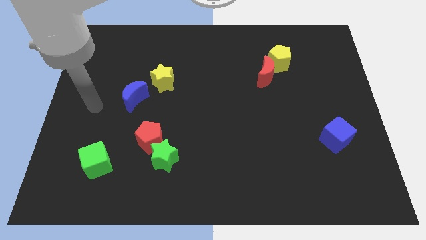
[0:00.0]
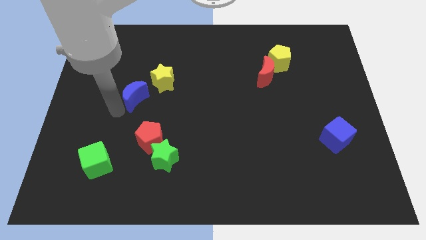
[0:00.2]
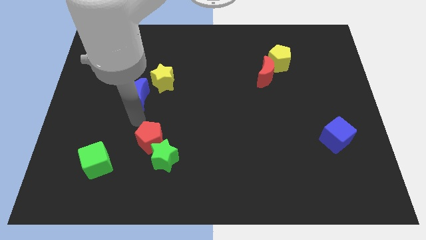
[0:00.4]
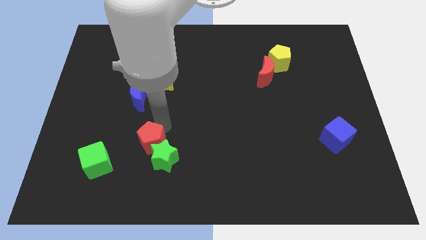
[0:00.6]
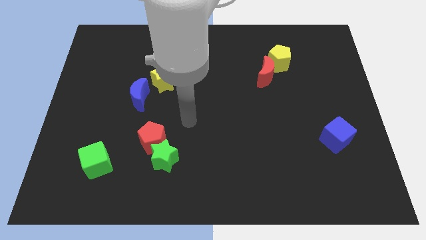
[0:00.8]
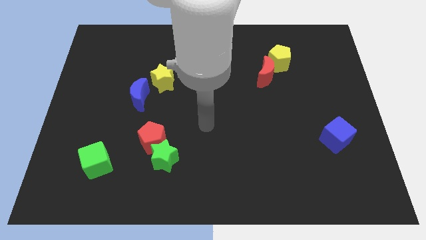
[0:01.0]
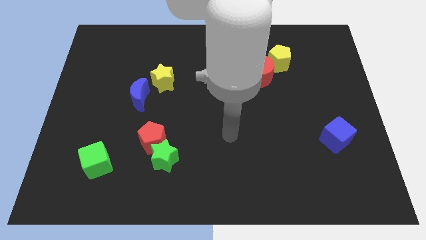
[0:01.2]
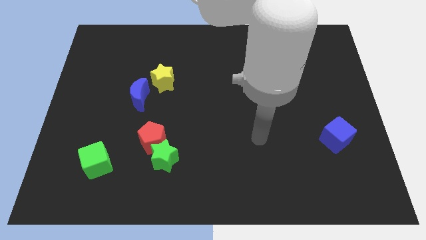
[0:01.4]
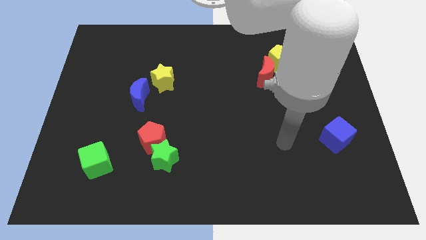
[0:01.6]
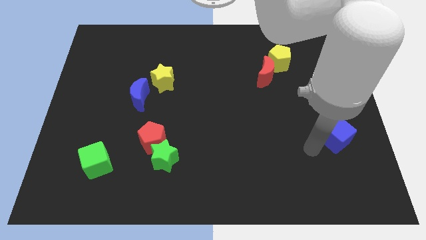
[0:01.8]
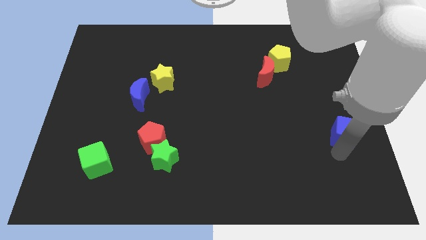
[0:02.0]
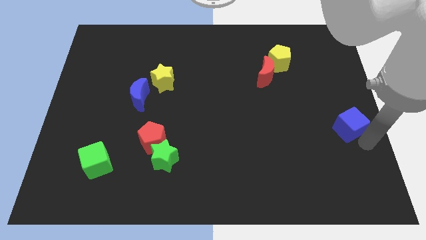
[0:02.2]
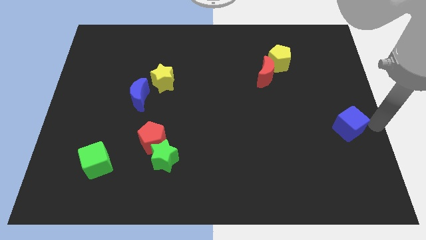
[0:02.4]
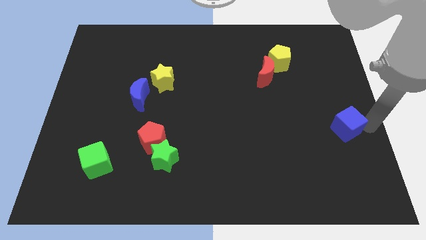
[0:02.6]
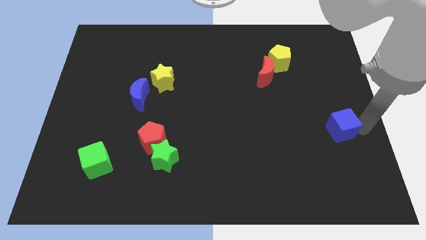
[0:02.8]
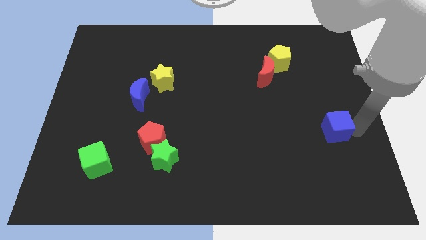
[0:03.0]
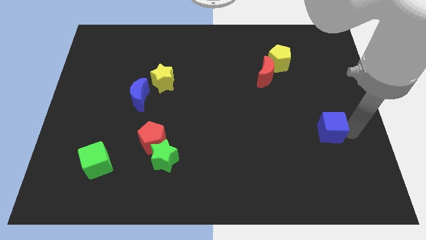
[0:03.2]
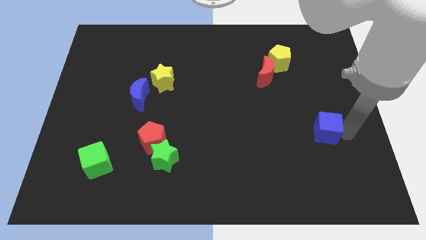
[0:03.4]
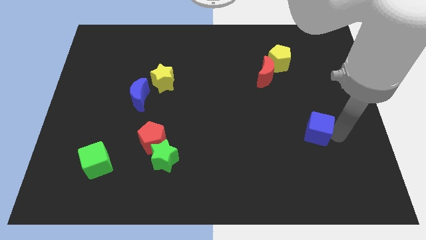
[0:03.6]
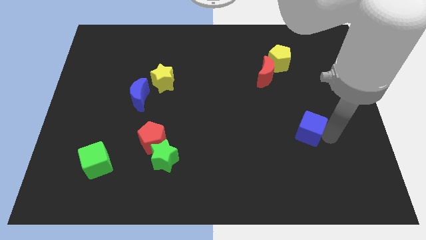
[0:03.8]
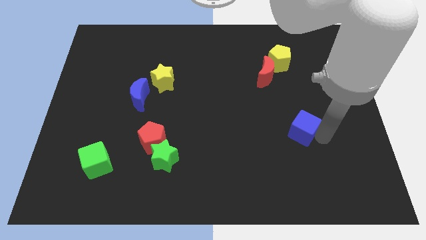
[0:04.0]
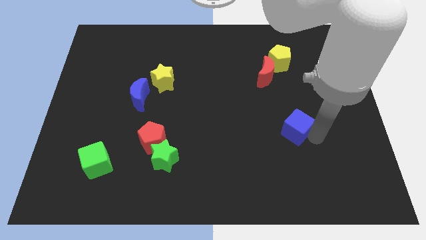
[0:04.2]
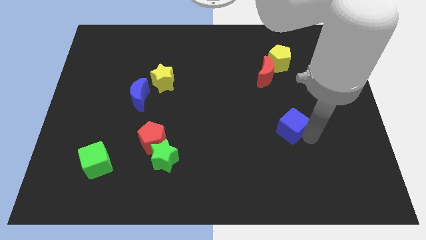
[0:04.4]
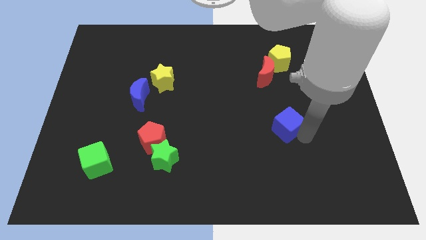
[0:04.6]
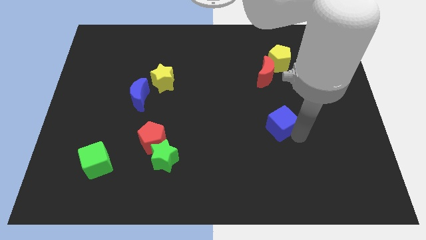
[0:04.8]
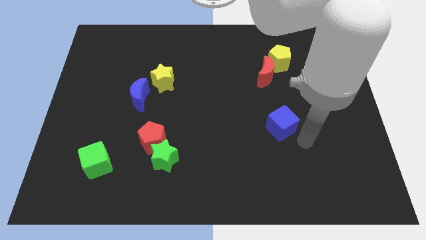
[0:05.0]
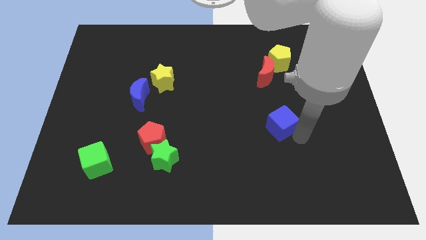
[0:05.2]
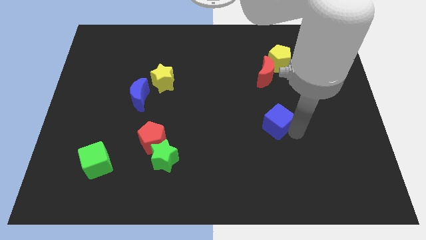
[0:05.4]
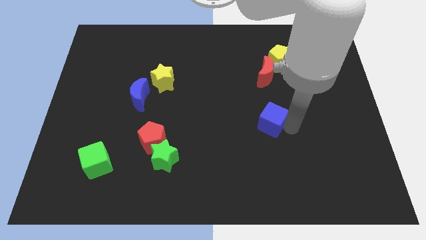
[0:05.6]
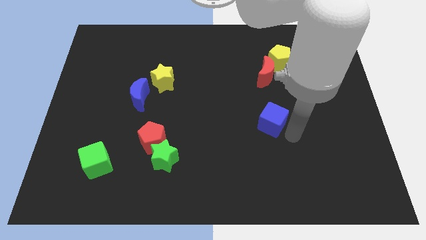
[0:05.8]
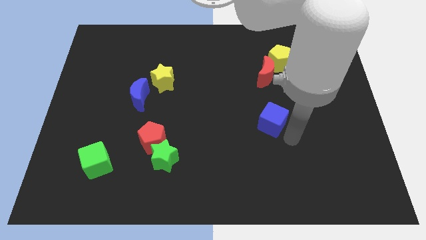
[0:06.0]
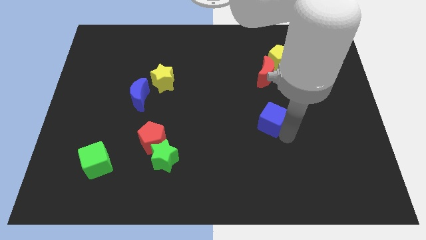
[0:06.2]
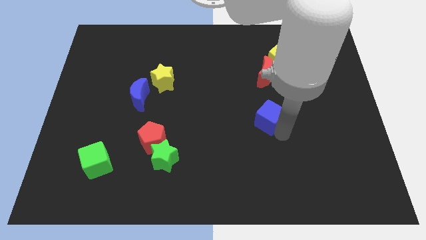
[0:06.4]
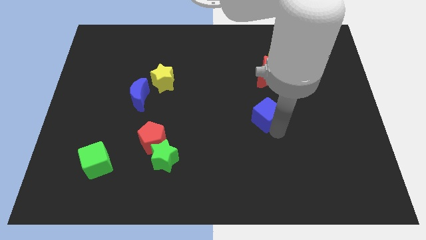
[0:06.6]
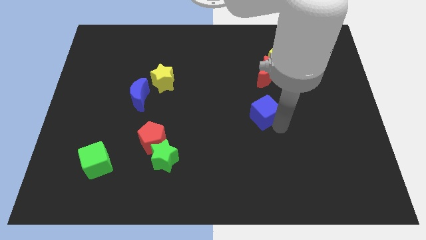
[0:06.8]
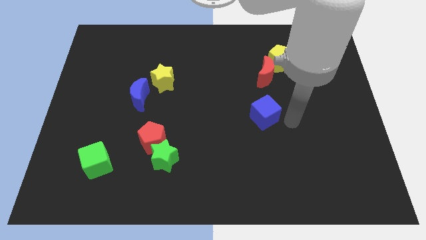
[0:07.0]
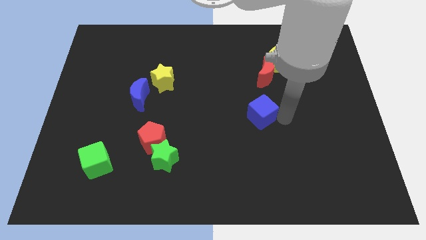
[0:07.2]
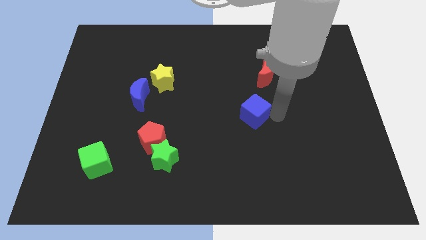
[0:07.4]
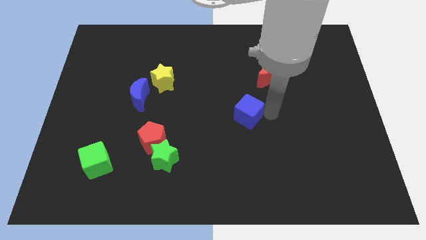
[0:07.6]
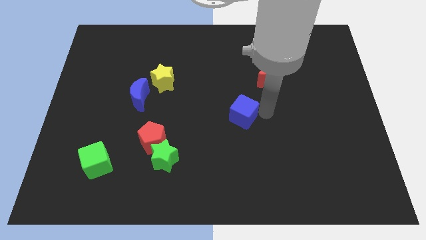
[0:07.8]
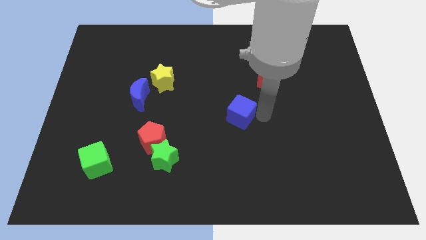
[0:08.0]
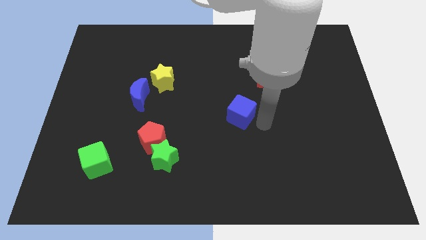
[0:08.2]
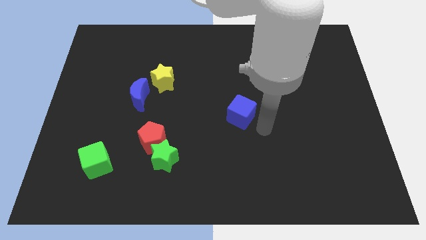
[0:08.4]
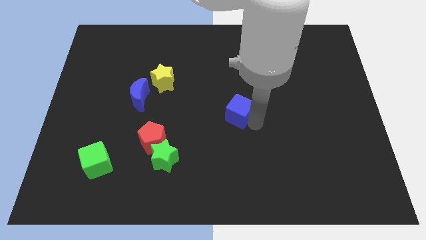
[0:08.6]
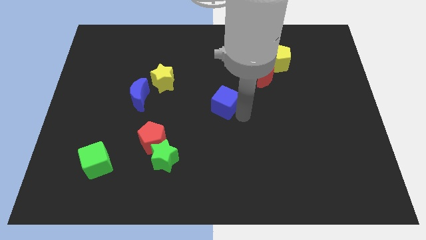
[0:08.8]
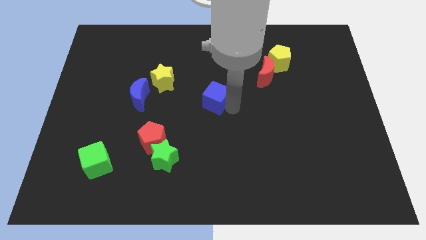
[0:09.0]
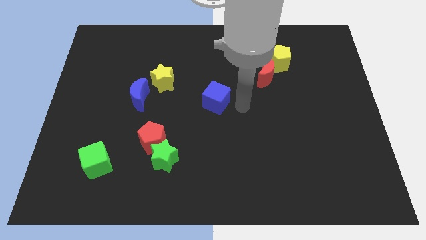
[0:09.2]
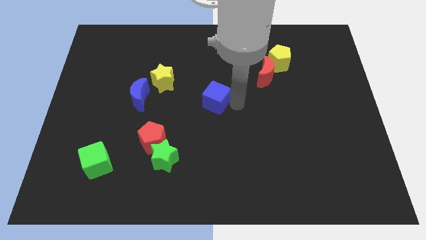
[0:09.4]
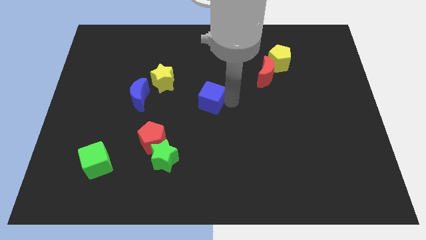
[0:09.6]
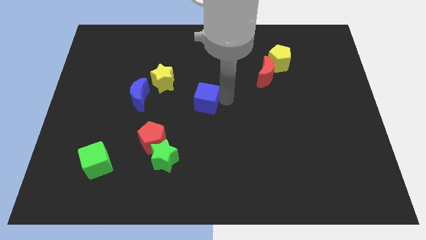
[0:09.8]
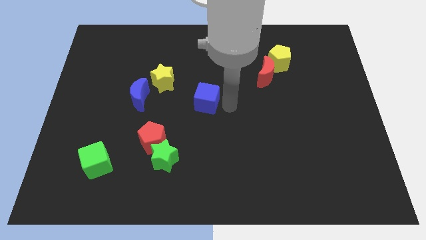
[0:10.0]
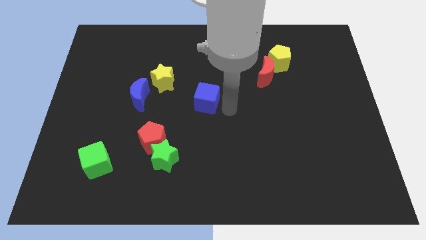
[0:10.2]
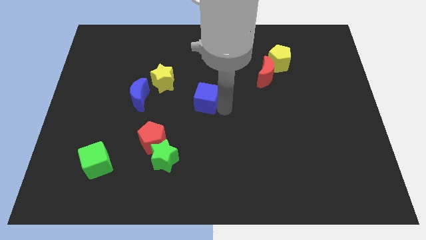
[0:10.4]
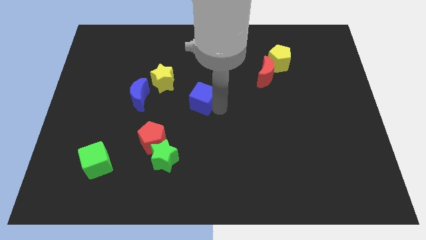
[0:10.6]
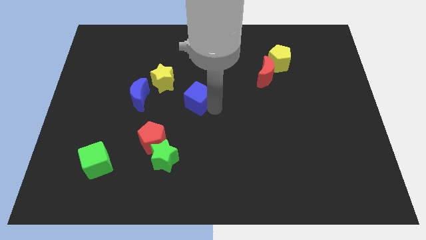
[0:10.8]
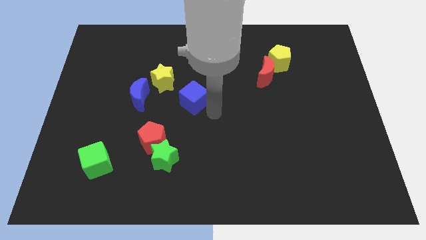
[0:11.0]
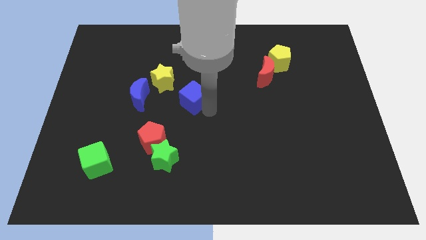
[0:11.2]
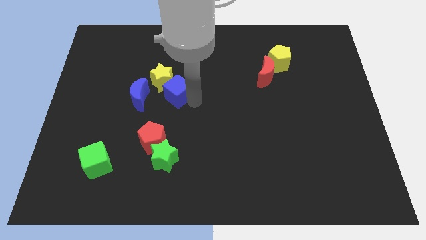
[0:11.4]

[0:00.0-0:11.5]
slide the blue cube next to the yellow star

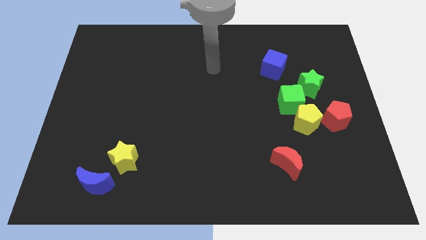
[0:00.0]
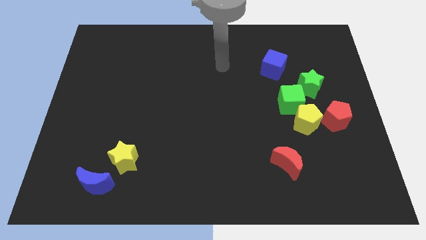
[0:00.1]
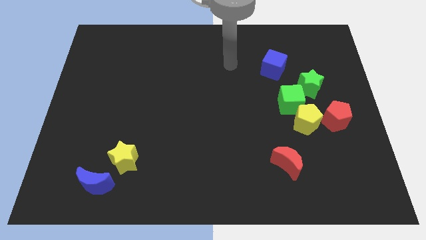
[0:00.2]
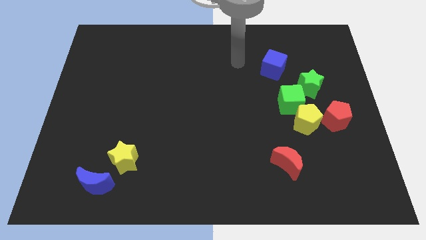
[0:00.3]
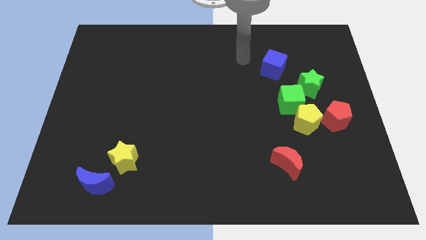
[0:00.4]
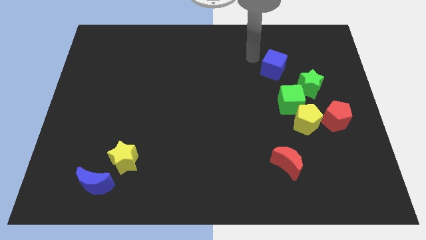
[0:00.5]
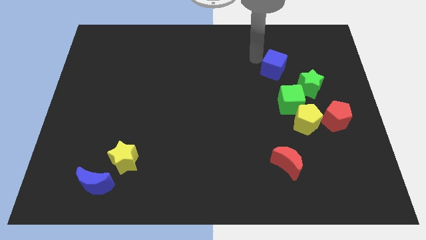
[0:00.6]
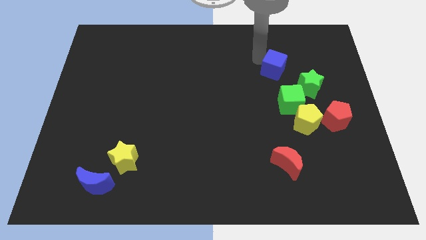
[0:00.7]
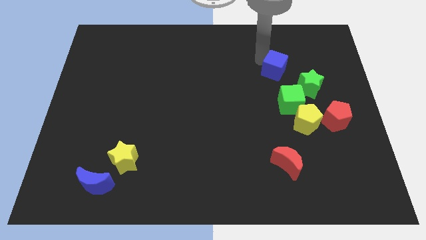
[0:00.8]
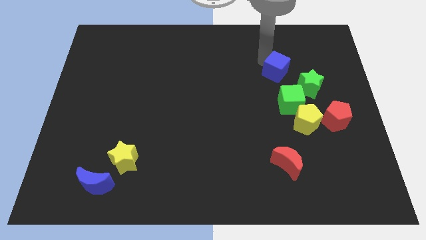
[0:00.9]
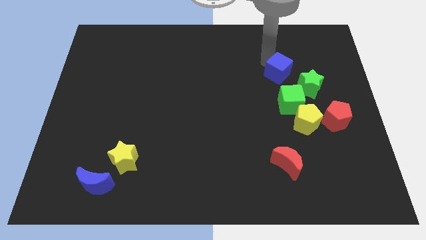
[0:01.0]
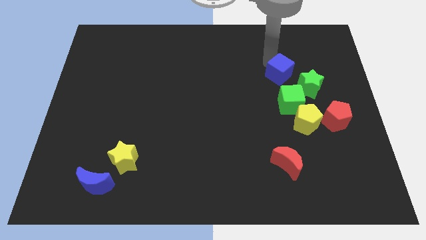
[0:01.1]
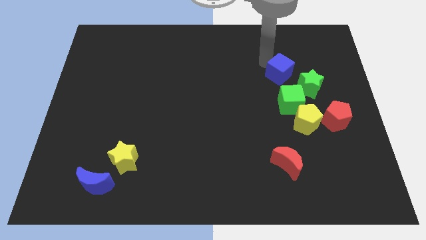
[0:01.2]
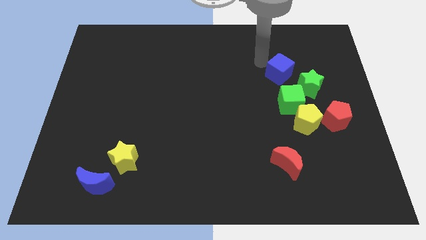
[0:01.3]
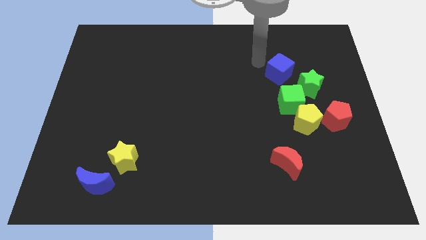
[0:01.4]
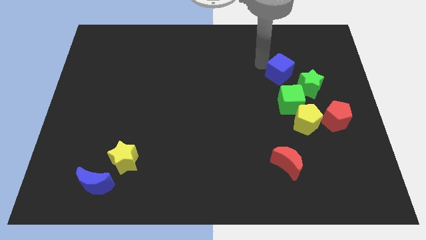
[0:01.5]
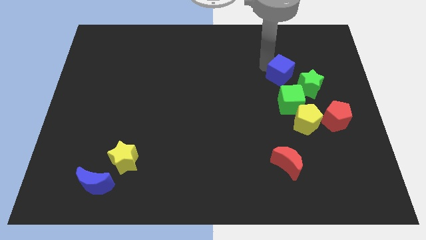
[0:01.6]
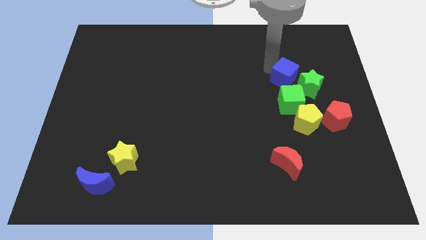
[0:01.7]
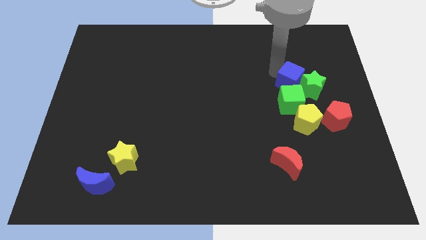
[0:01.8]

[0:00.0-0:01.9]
put the blue cube to the green star
